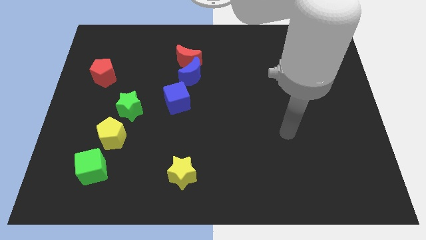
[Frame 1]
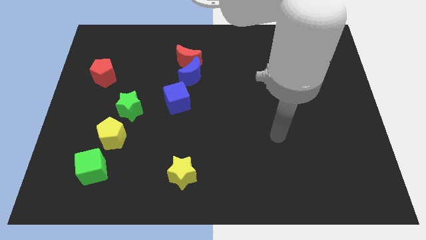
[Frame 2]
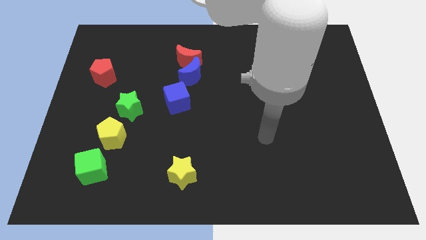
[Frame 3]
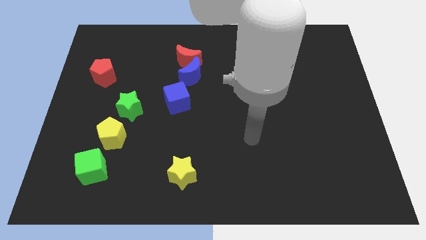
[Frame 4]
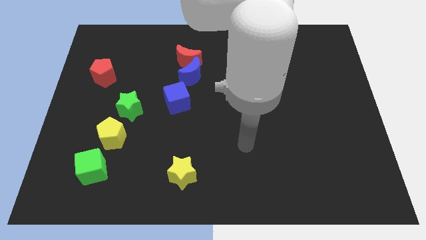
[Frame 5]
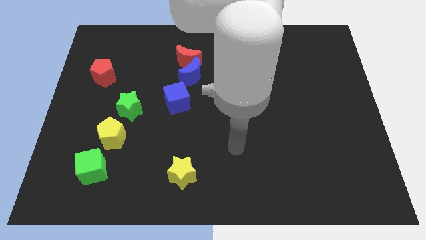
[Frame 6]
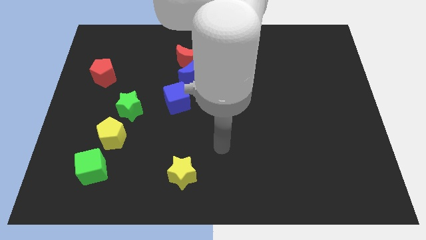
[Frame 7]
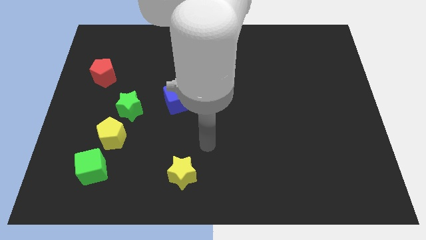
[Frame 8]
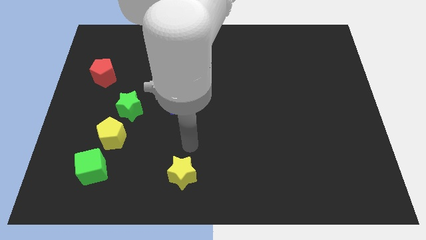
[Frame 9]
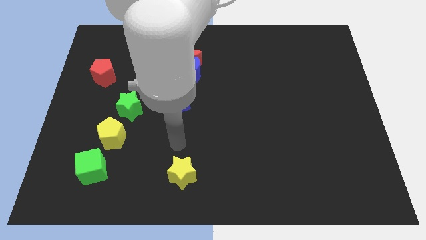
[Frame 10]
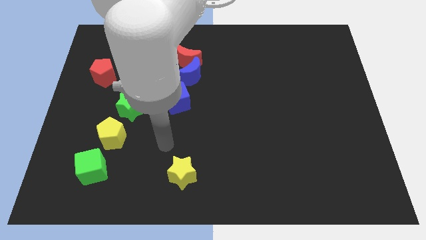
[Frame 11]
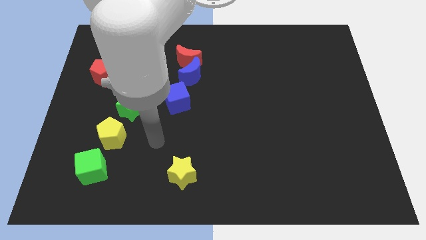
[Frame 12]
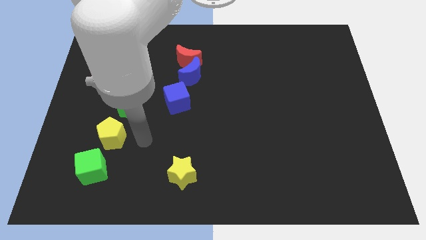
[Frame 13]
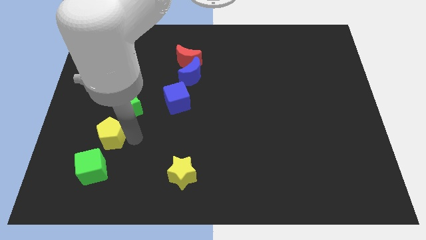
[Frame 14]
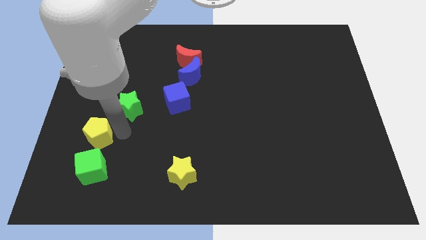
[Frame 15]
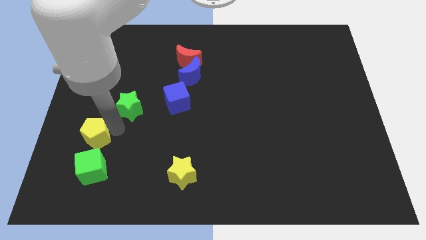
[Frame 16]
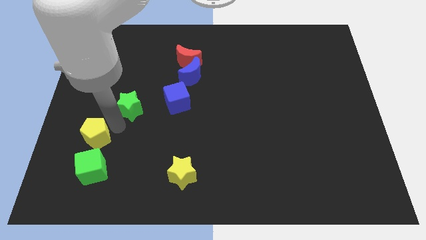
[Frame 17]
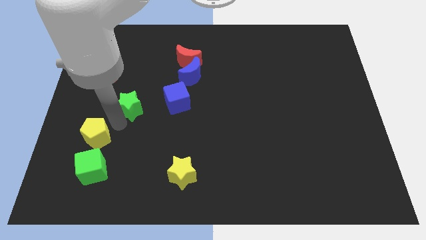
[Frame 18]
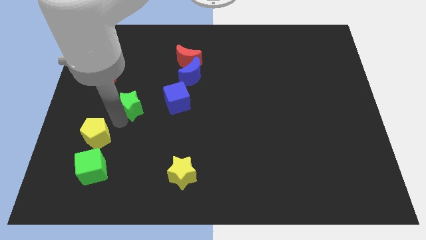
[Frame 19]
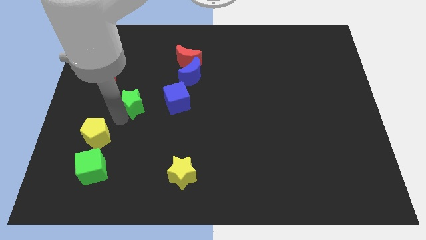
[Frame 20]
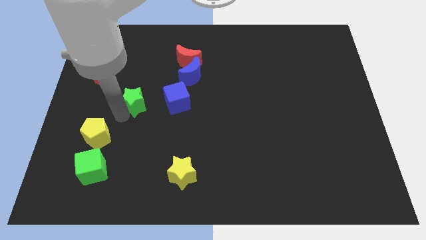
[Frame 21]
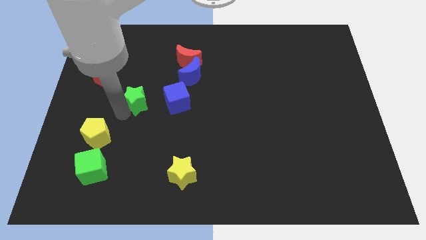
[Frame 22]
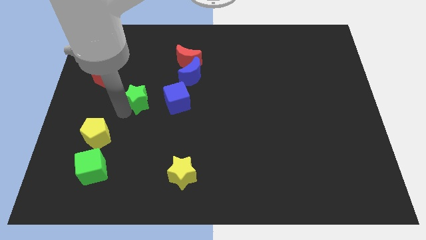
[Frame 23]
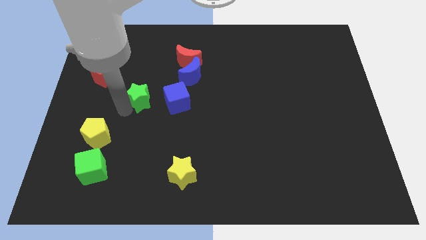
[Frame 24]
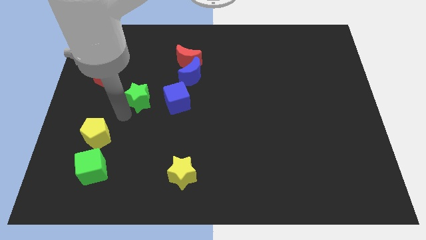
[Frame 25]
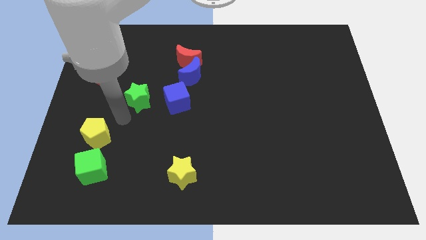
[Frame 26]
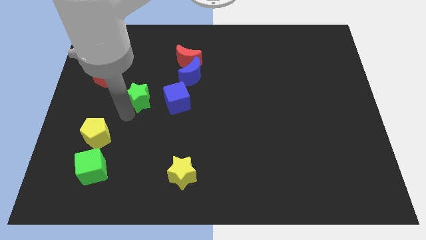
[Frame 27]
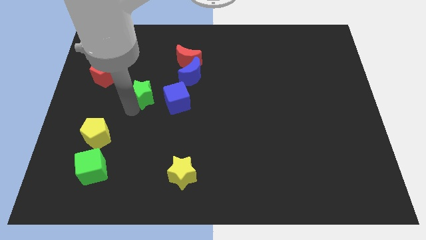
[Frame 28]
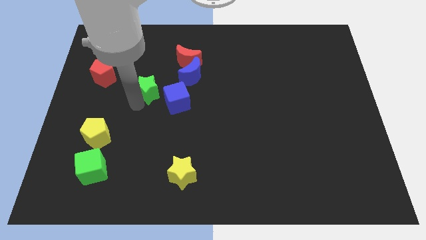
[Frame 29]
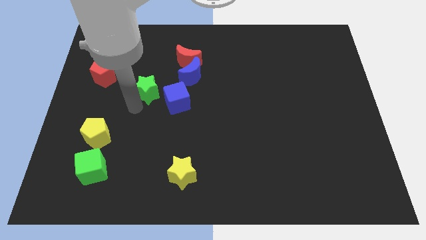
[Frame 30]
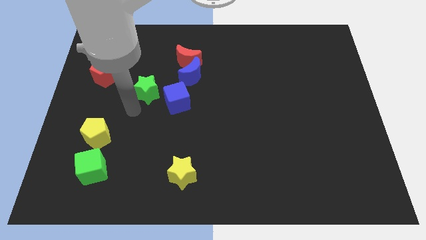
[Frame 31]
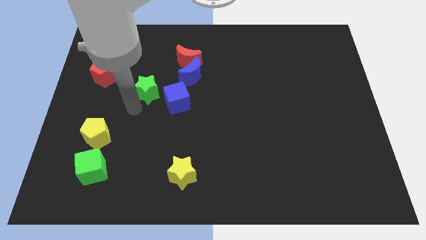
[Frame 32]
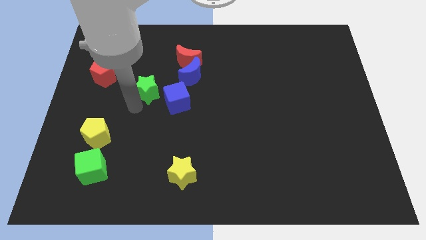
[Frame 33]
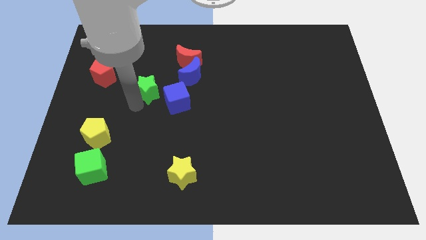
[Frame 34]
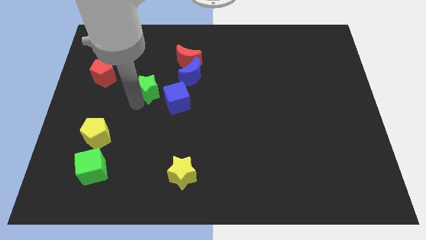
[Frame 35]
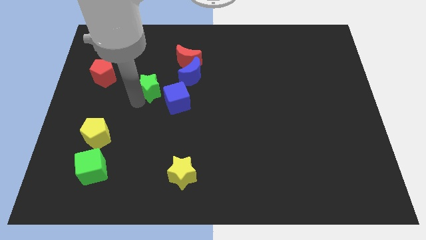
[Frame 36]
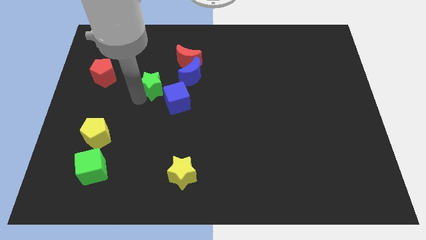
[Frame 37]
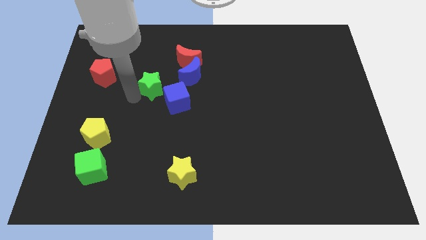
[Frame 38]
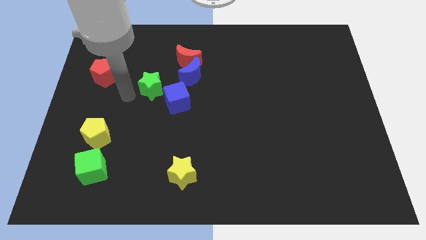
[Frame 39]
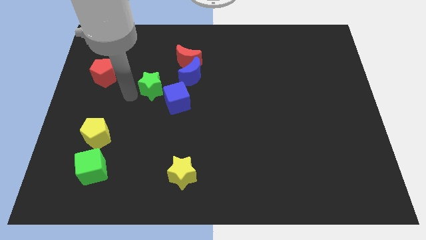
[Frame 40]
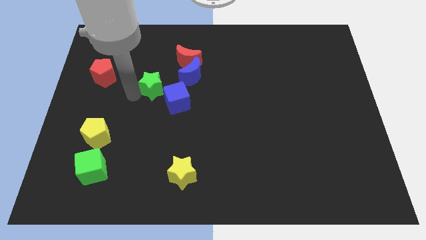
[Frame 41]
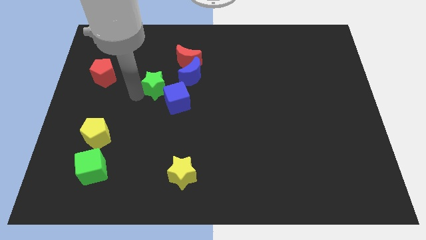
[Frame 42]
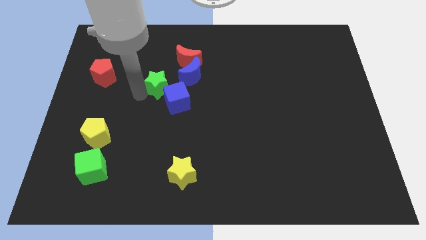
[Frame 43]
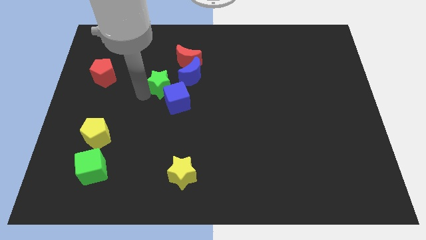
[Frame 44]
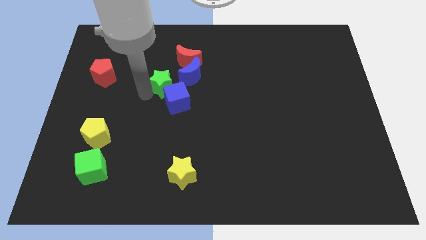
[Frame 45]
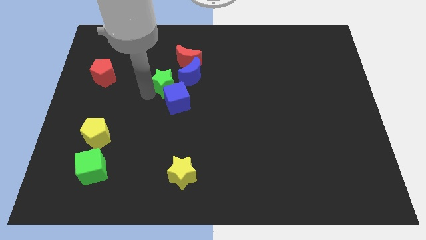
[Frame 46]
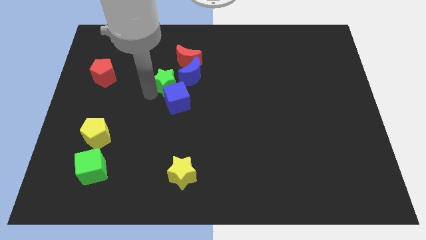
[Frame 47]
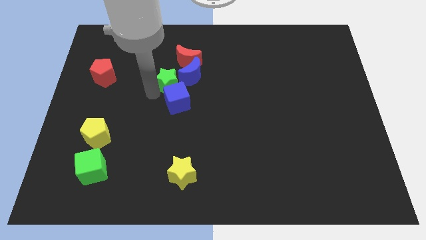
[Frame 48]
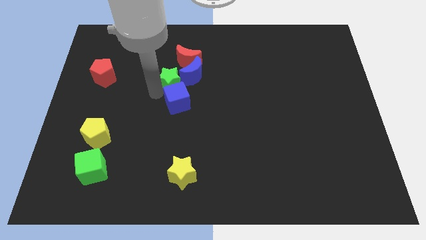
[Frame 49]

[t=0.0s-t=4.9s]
push the green star to the blue moon

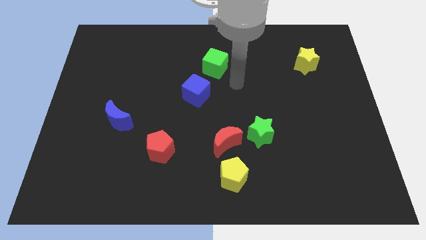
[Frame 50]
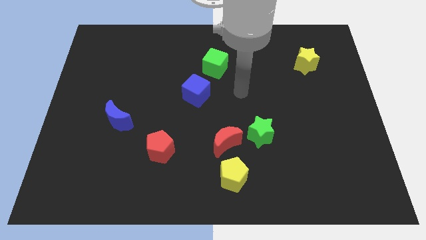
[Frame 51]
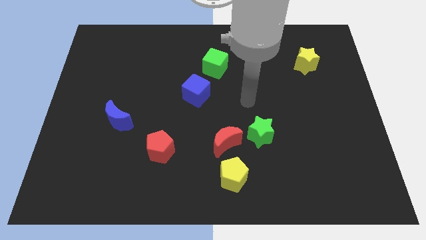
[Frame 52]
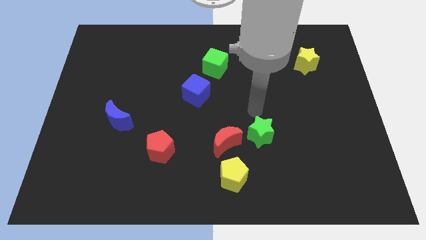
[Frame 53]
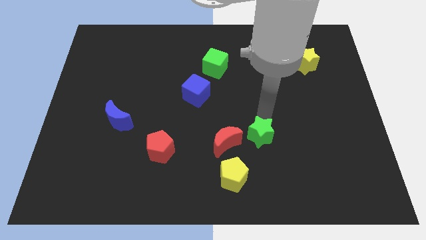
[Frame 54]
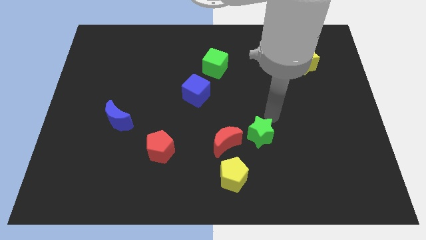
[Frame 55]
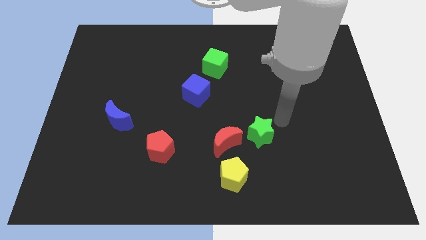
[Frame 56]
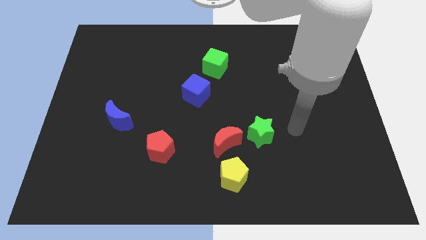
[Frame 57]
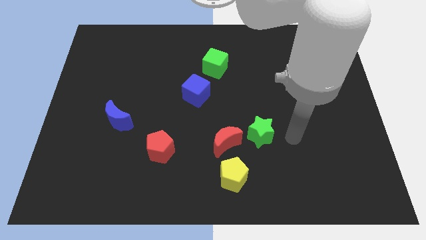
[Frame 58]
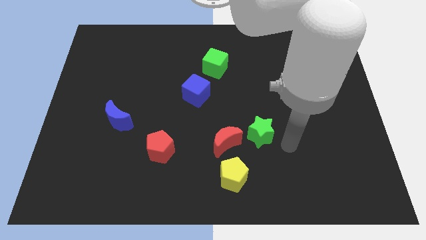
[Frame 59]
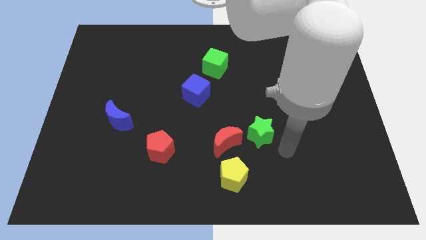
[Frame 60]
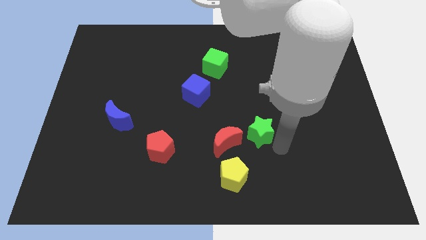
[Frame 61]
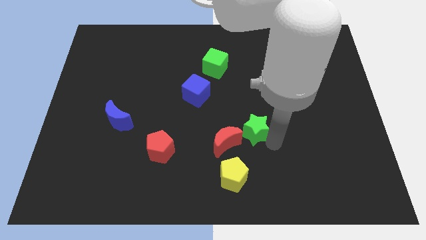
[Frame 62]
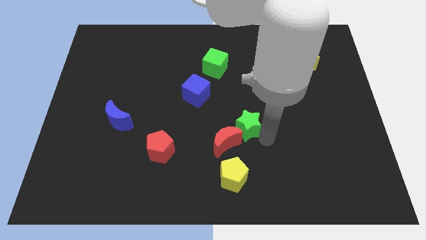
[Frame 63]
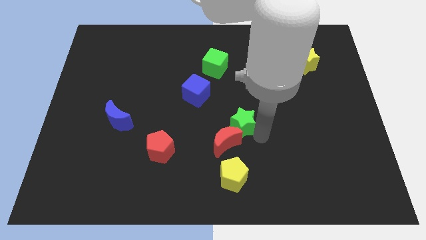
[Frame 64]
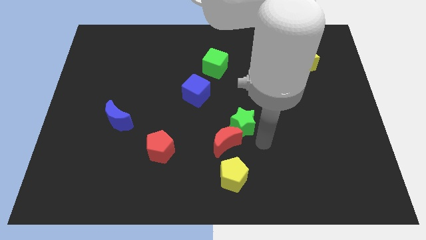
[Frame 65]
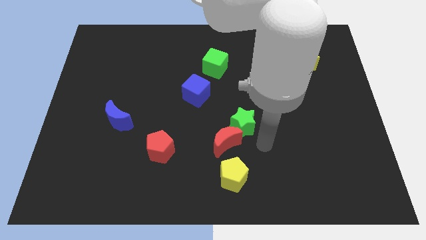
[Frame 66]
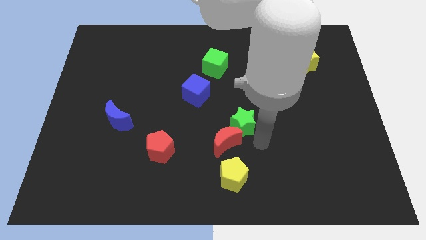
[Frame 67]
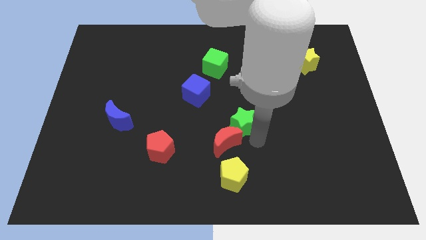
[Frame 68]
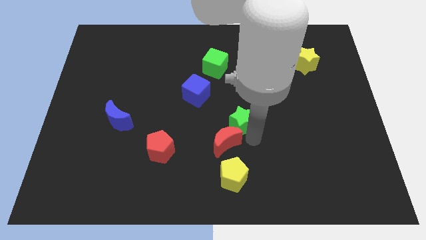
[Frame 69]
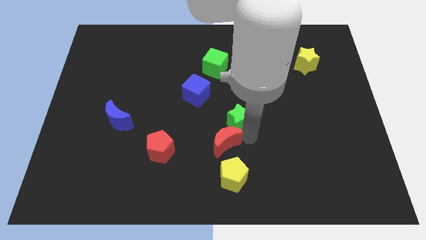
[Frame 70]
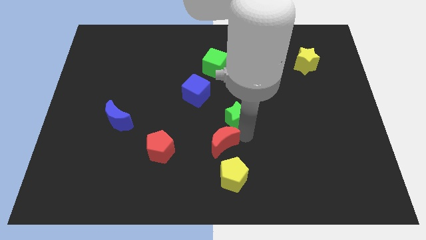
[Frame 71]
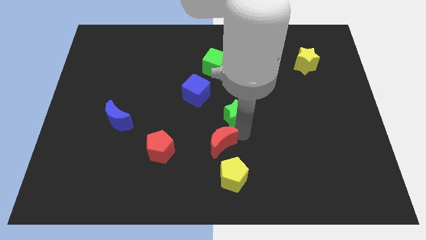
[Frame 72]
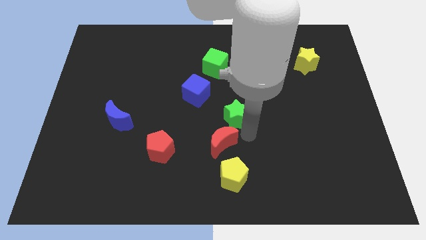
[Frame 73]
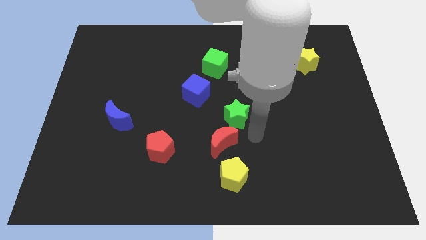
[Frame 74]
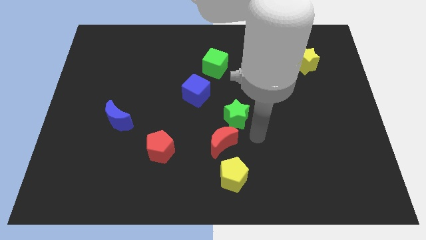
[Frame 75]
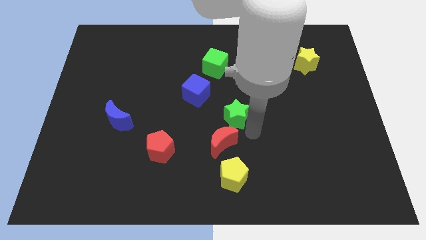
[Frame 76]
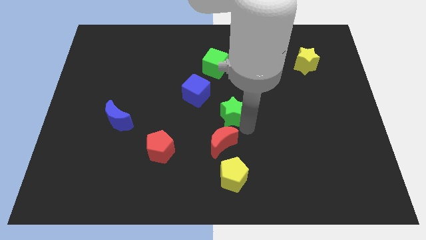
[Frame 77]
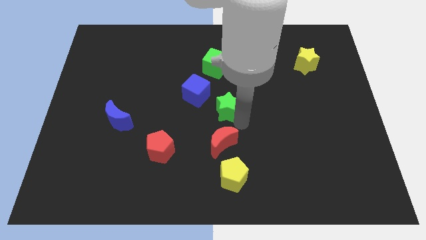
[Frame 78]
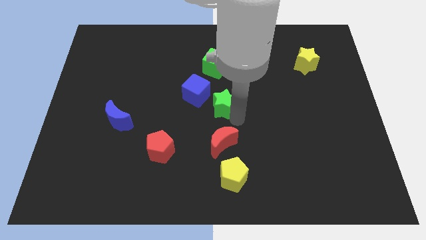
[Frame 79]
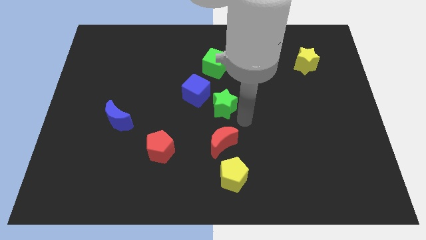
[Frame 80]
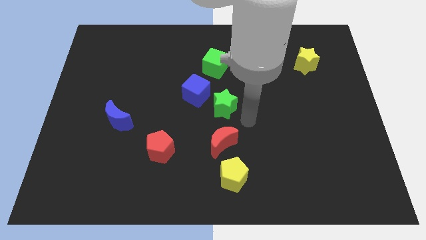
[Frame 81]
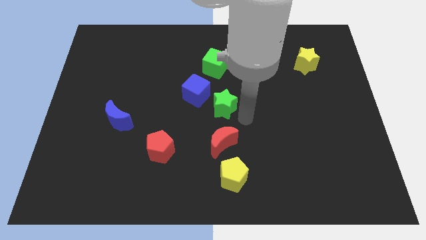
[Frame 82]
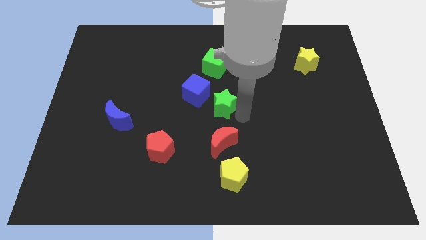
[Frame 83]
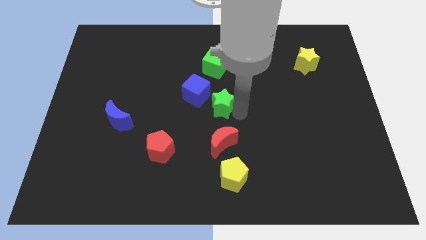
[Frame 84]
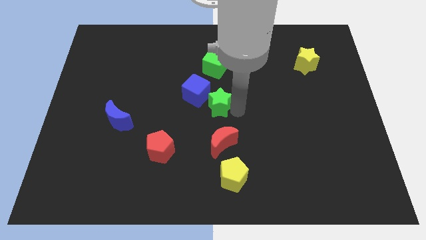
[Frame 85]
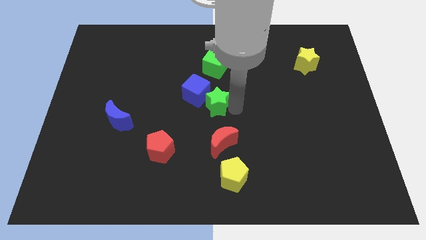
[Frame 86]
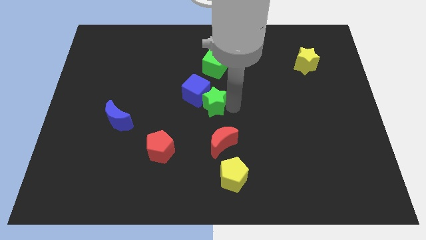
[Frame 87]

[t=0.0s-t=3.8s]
move the green star to the blue cube
